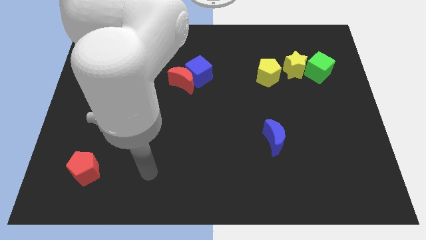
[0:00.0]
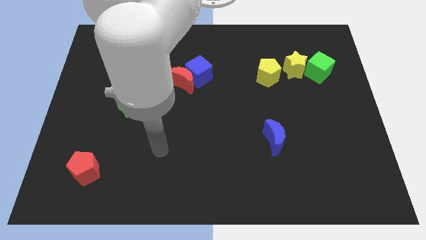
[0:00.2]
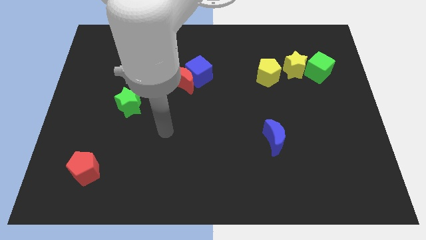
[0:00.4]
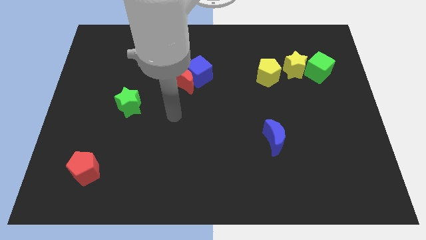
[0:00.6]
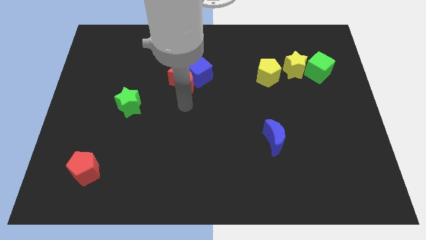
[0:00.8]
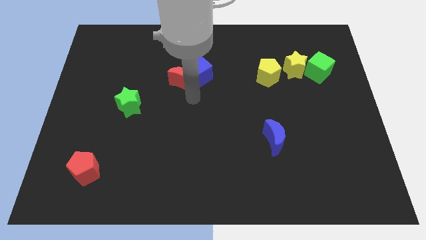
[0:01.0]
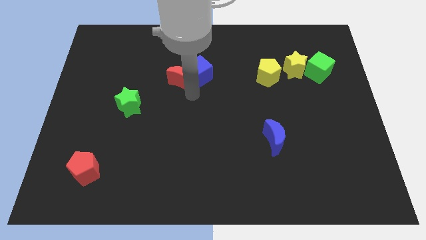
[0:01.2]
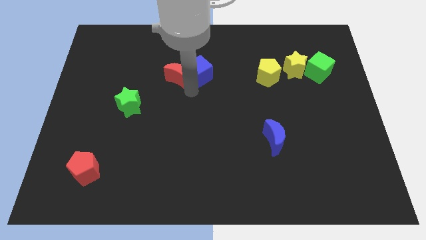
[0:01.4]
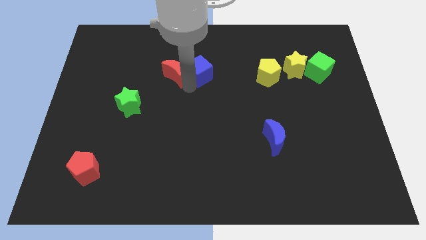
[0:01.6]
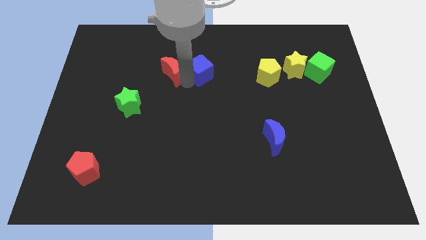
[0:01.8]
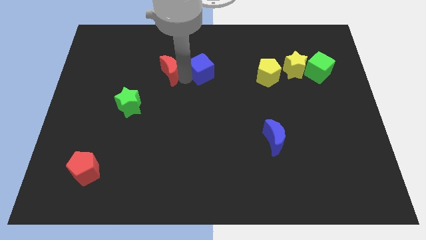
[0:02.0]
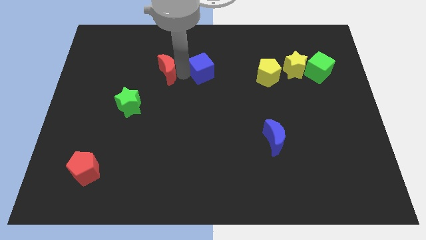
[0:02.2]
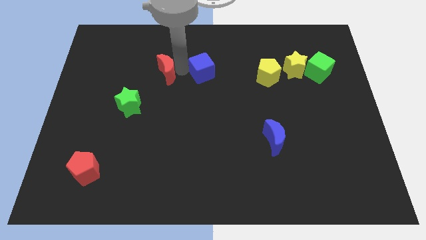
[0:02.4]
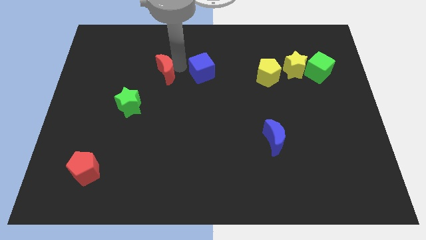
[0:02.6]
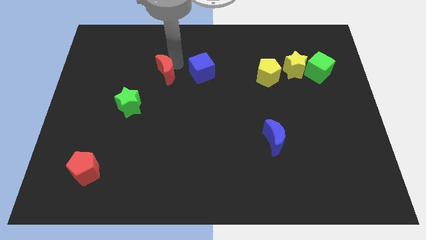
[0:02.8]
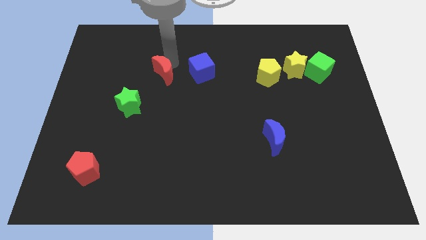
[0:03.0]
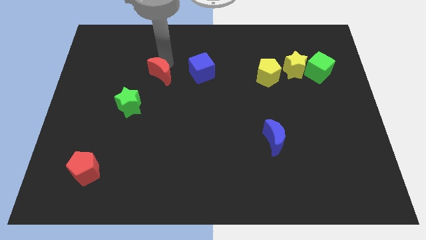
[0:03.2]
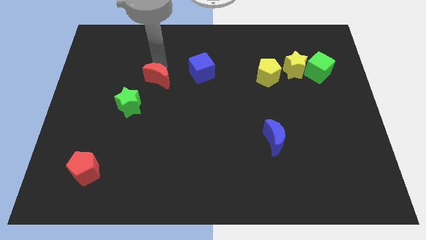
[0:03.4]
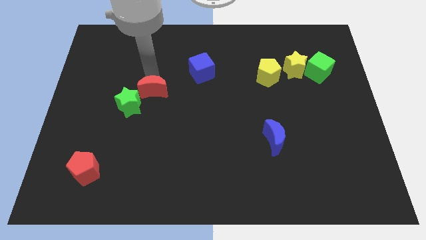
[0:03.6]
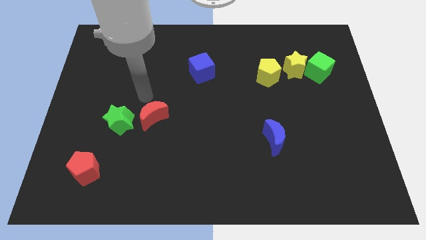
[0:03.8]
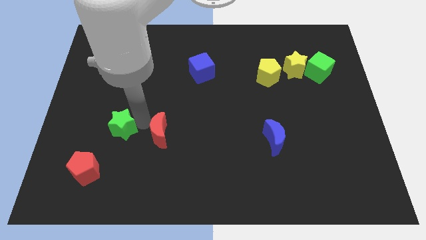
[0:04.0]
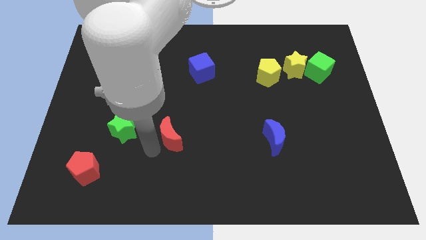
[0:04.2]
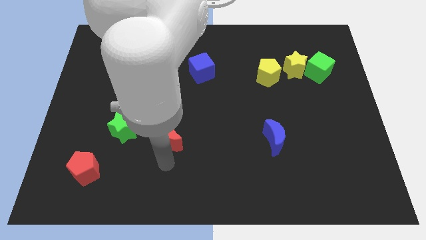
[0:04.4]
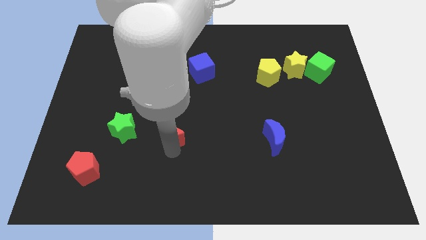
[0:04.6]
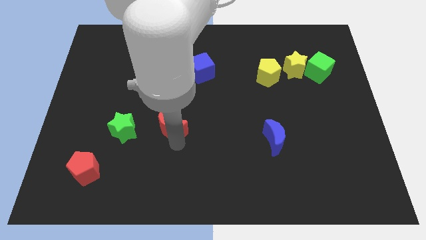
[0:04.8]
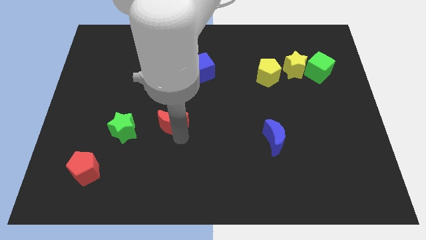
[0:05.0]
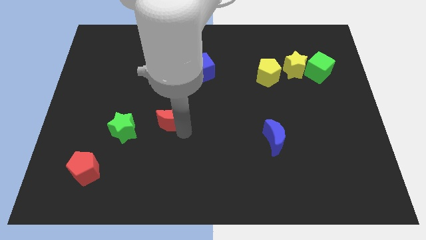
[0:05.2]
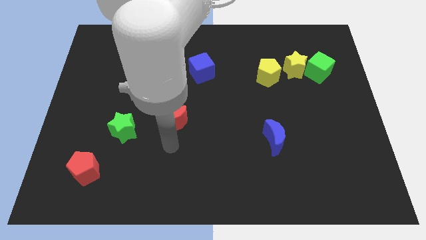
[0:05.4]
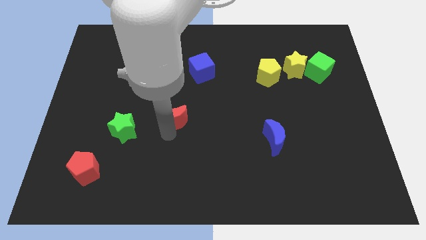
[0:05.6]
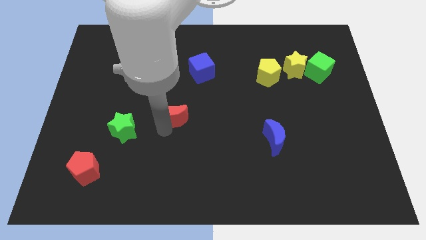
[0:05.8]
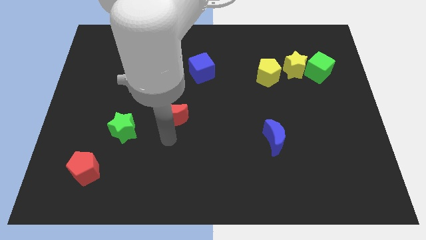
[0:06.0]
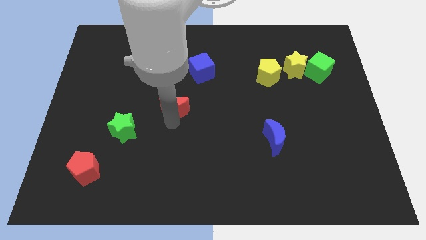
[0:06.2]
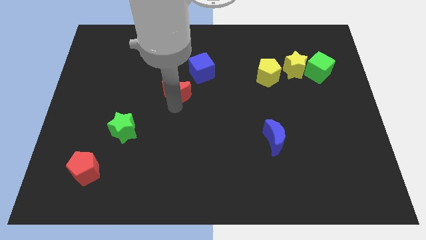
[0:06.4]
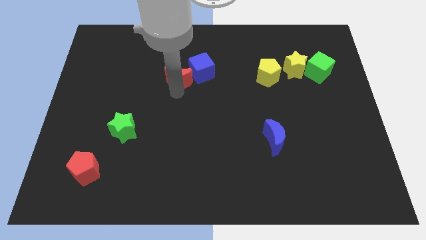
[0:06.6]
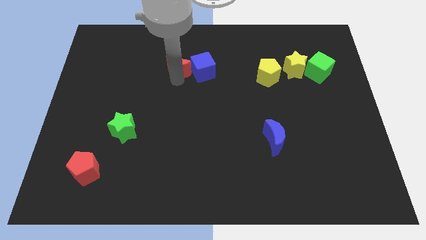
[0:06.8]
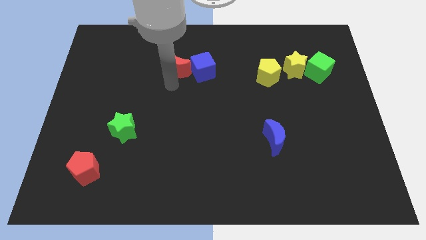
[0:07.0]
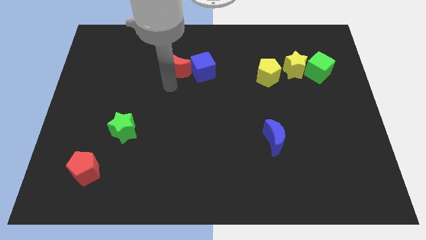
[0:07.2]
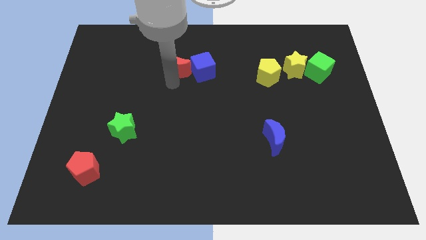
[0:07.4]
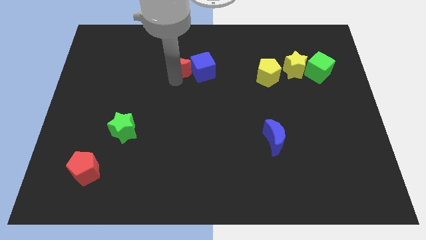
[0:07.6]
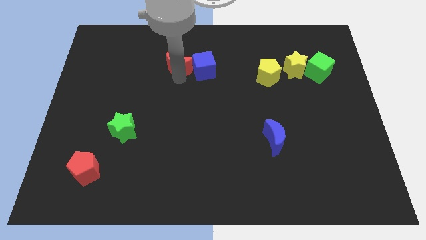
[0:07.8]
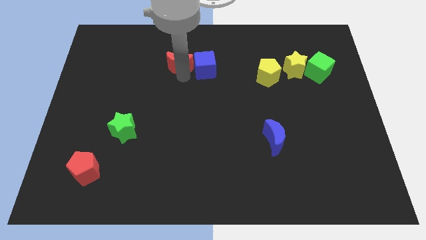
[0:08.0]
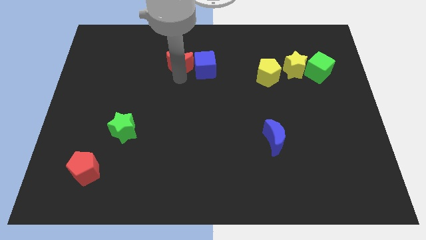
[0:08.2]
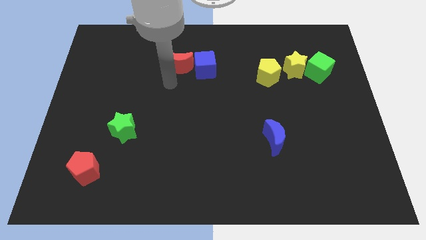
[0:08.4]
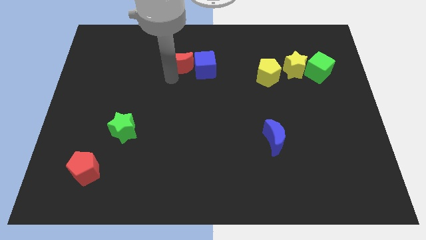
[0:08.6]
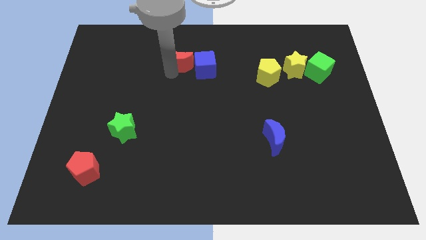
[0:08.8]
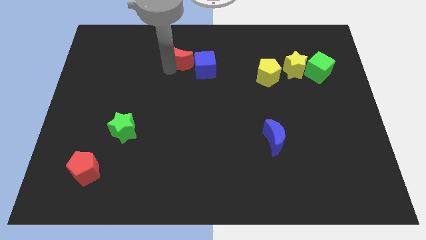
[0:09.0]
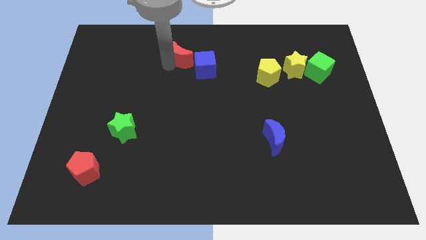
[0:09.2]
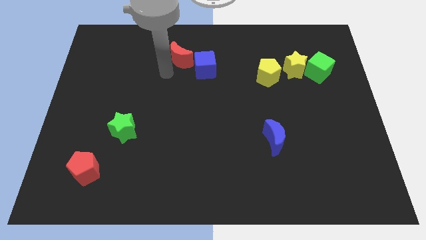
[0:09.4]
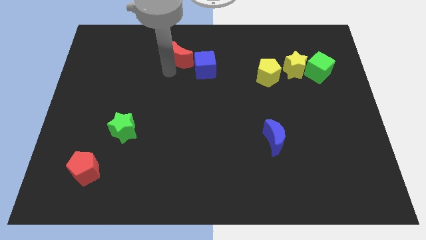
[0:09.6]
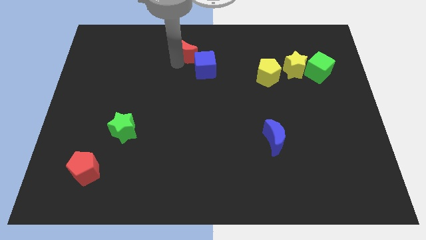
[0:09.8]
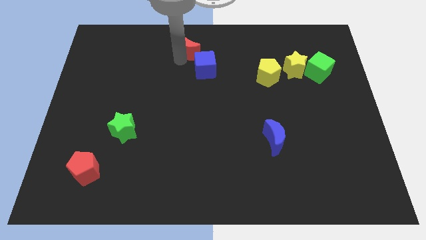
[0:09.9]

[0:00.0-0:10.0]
move the red moon to the top side

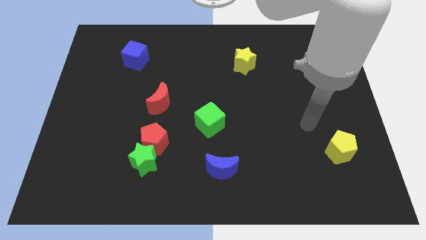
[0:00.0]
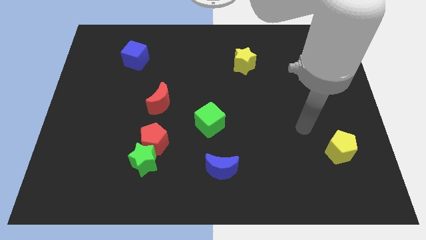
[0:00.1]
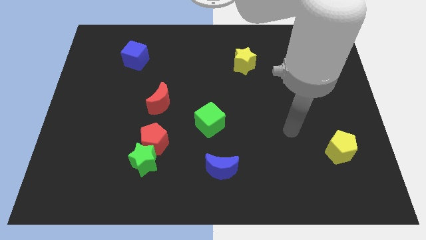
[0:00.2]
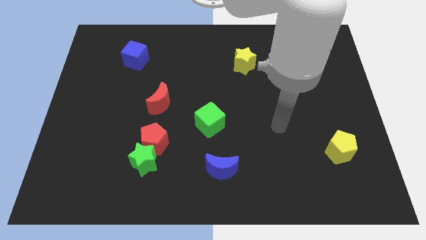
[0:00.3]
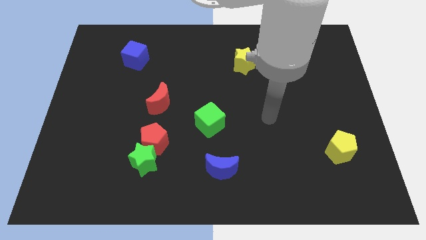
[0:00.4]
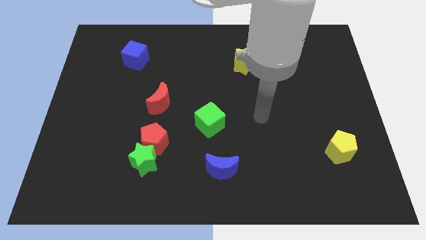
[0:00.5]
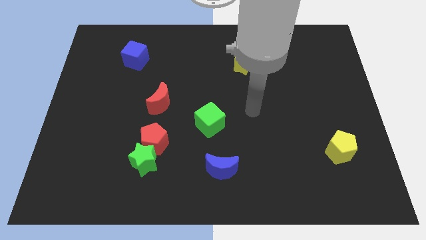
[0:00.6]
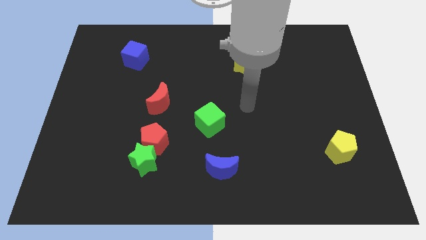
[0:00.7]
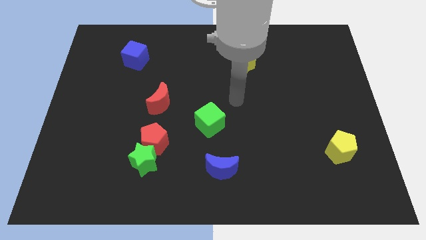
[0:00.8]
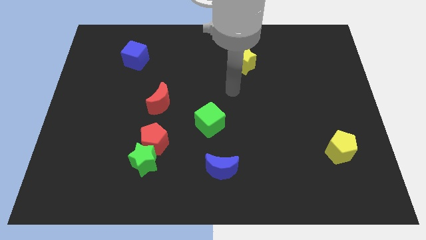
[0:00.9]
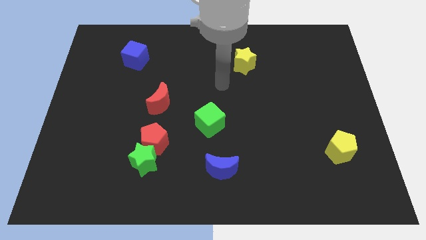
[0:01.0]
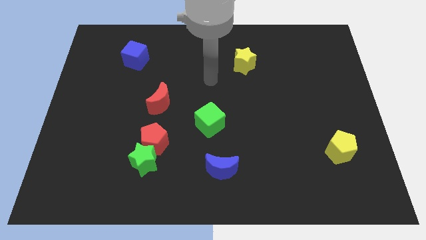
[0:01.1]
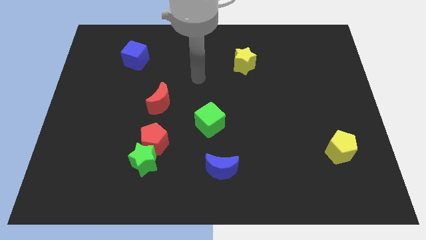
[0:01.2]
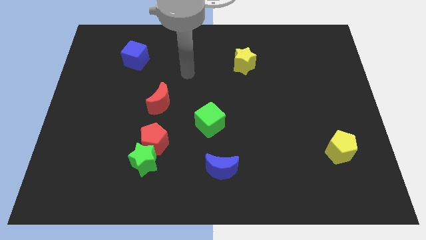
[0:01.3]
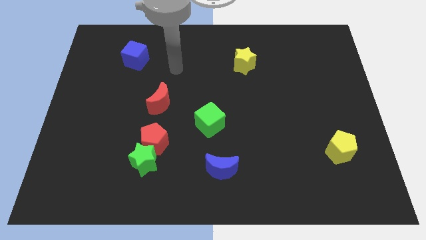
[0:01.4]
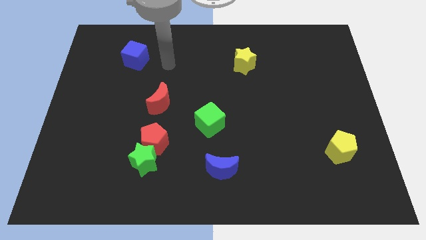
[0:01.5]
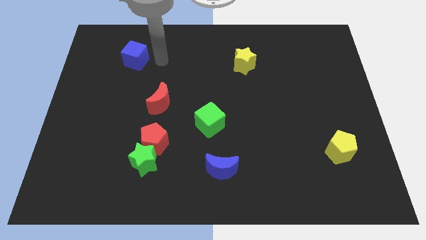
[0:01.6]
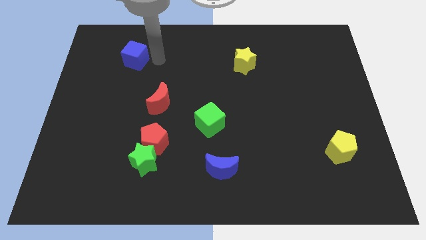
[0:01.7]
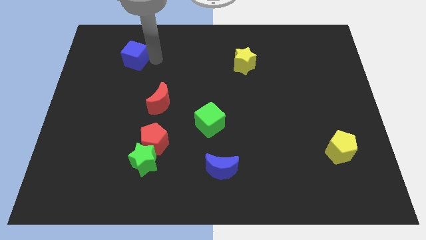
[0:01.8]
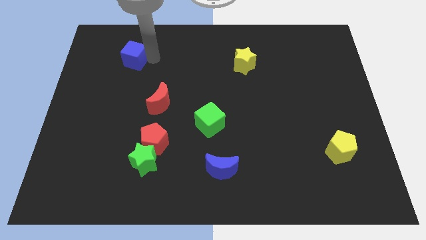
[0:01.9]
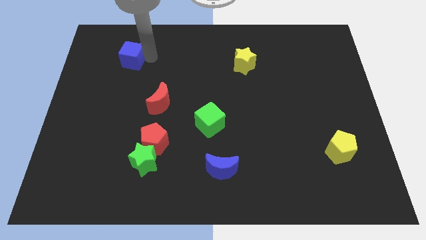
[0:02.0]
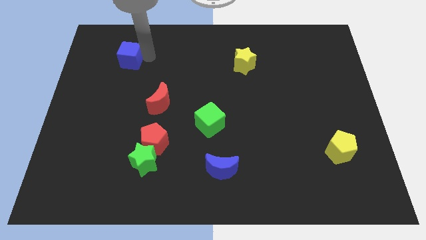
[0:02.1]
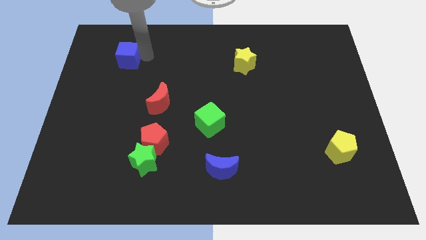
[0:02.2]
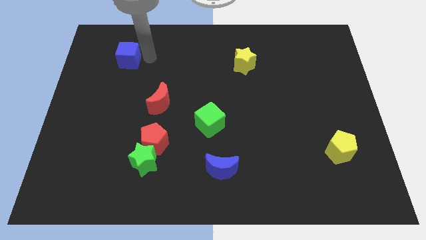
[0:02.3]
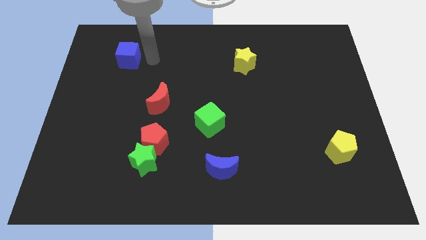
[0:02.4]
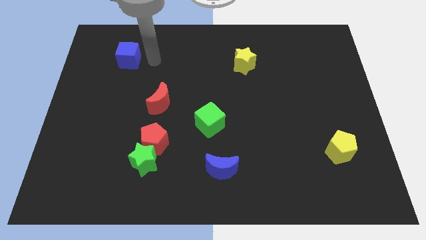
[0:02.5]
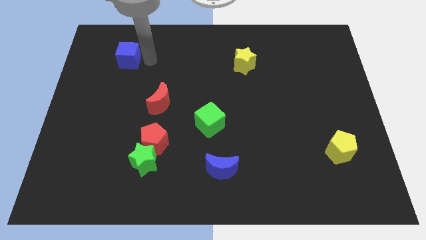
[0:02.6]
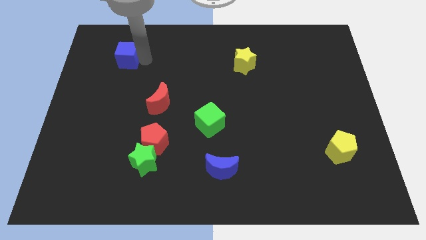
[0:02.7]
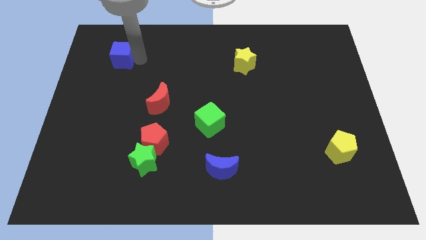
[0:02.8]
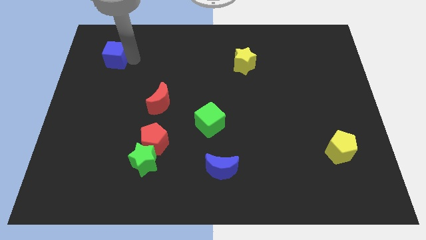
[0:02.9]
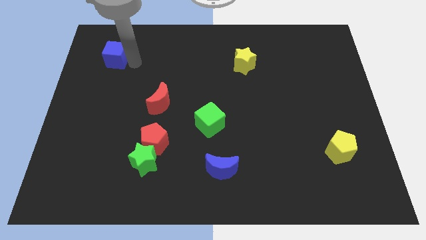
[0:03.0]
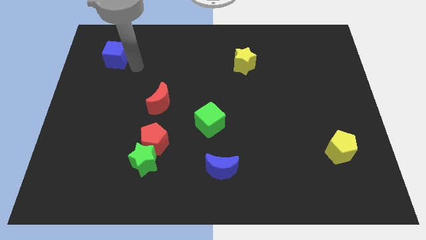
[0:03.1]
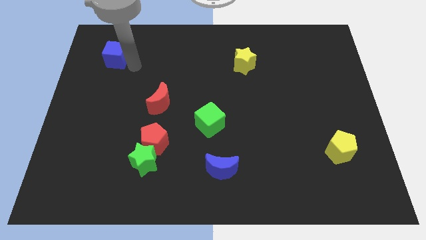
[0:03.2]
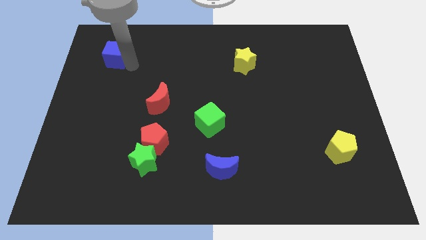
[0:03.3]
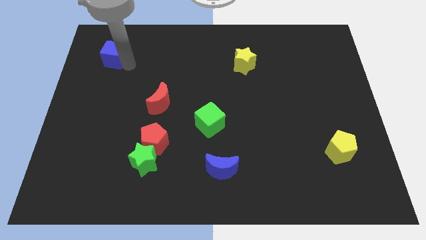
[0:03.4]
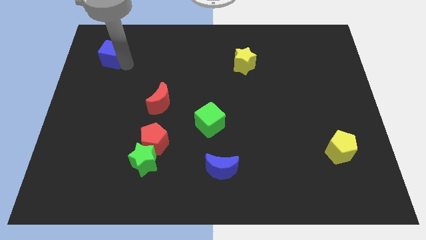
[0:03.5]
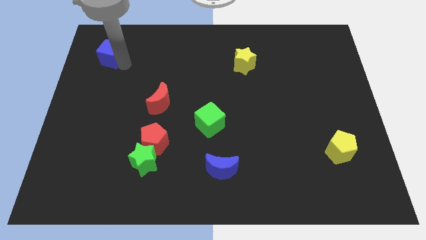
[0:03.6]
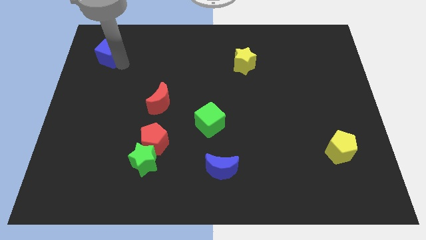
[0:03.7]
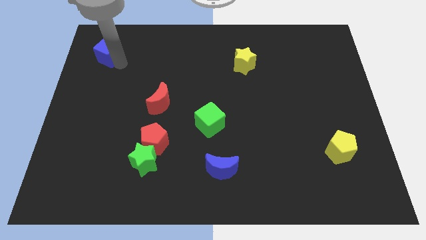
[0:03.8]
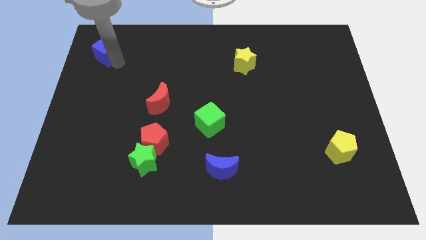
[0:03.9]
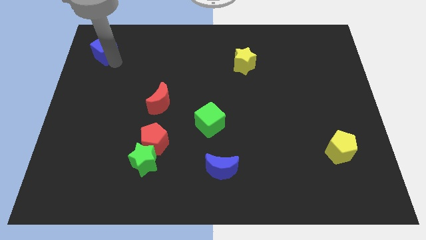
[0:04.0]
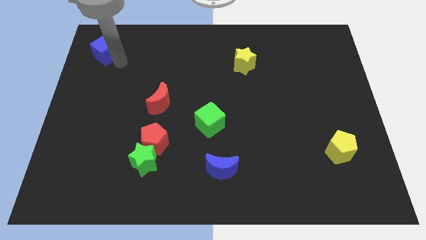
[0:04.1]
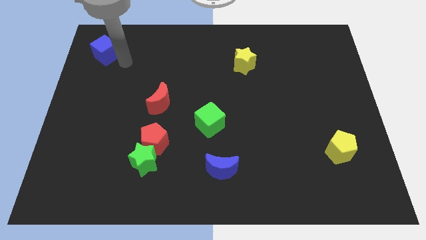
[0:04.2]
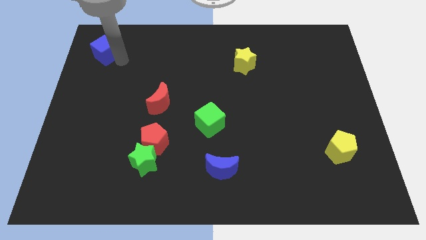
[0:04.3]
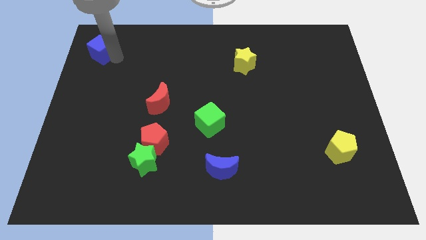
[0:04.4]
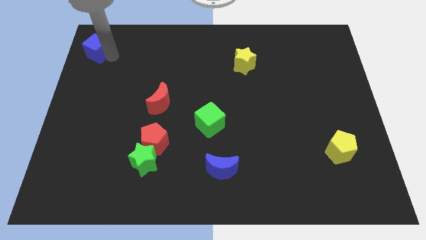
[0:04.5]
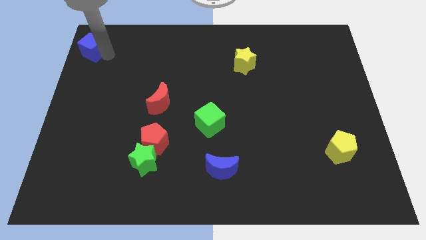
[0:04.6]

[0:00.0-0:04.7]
slide the blue cube to the top left corner
